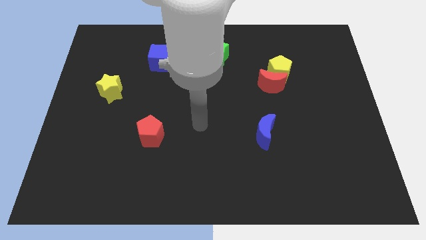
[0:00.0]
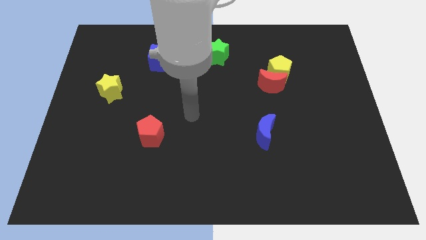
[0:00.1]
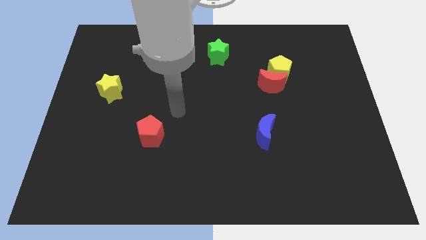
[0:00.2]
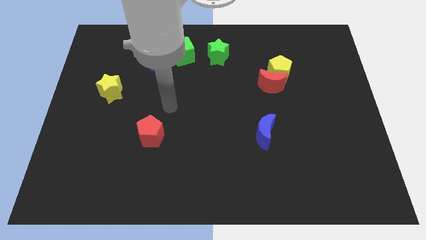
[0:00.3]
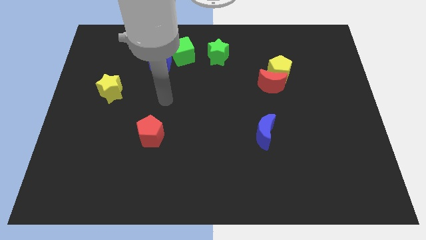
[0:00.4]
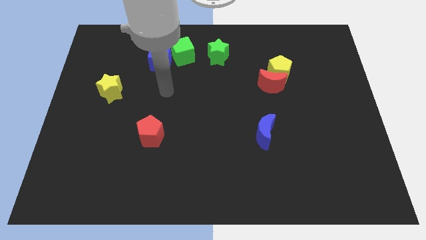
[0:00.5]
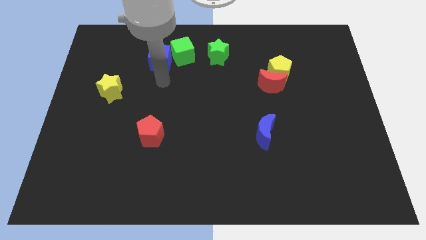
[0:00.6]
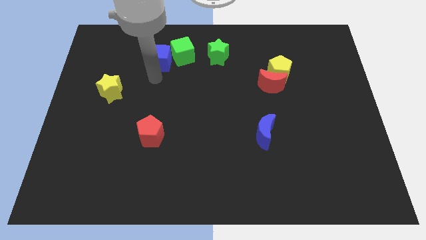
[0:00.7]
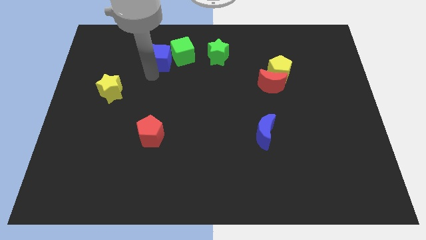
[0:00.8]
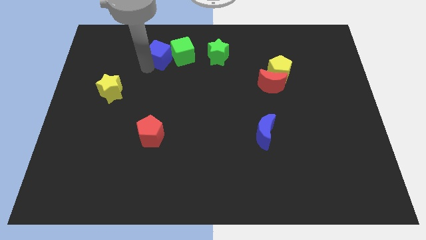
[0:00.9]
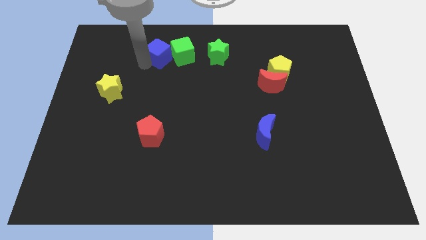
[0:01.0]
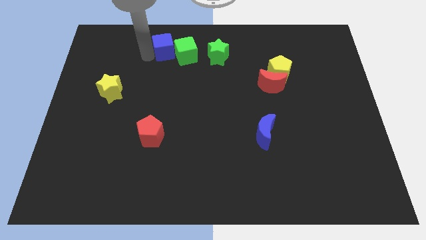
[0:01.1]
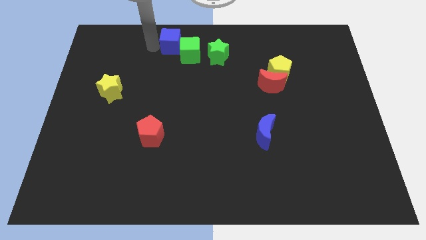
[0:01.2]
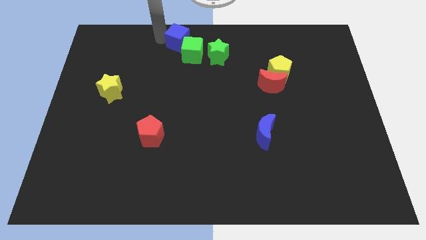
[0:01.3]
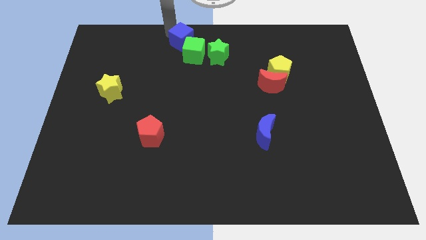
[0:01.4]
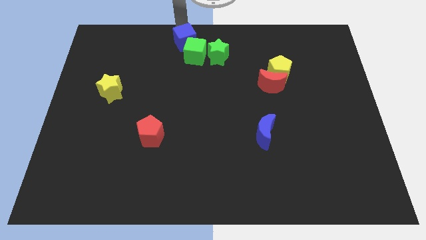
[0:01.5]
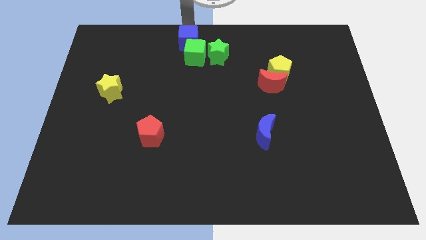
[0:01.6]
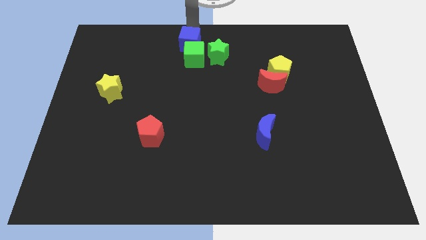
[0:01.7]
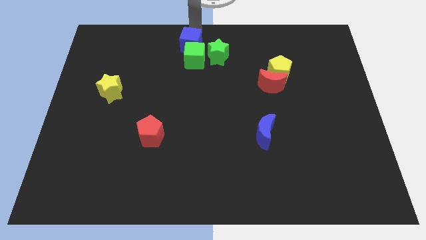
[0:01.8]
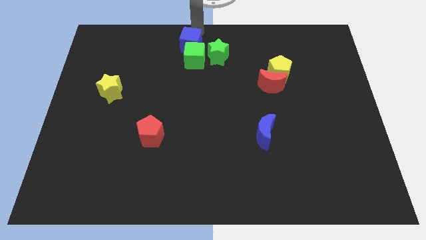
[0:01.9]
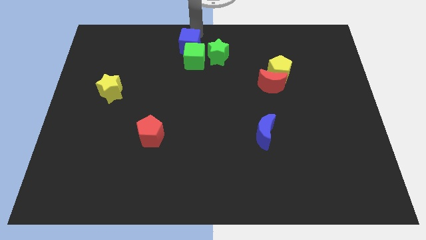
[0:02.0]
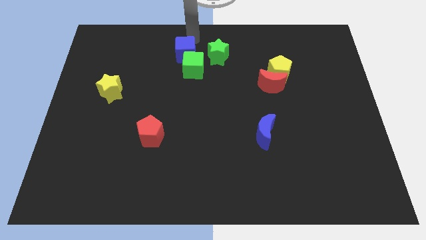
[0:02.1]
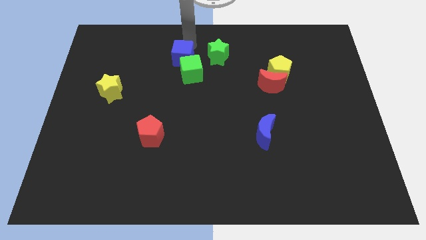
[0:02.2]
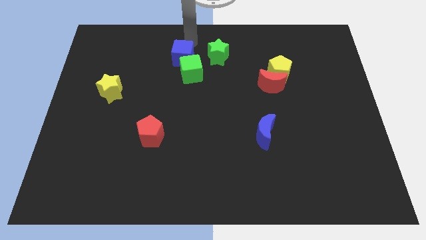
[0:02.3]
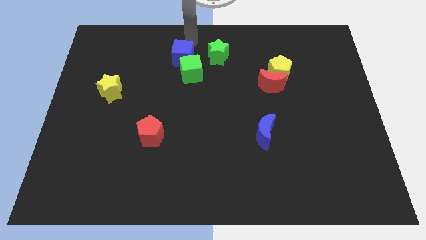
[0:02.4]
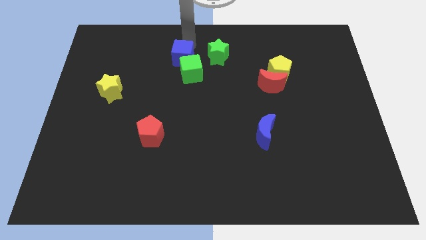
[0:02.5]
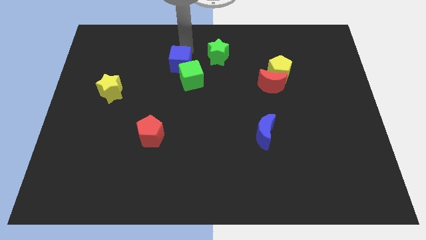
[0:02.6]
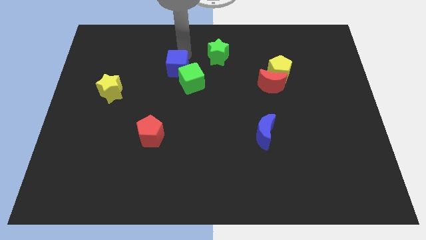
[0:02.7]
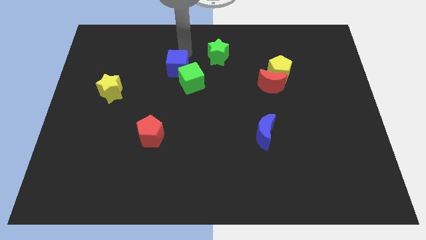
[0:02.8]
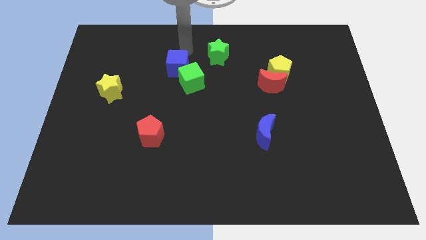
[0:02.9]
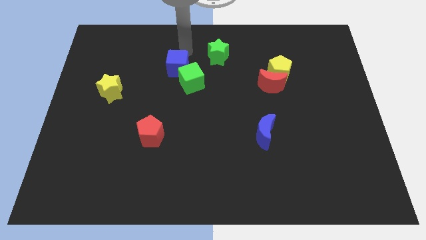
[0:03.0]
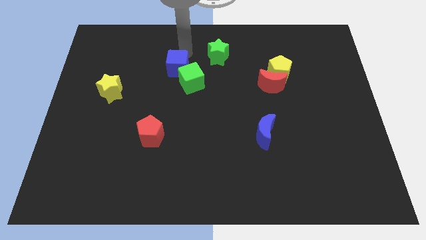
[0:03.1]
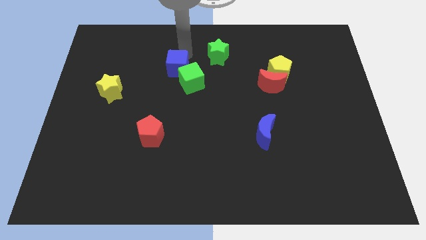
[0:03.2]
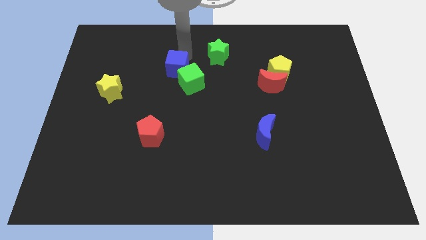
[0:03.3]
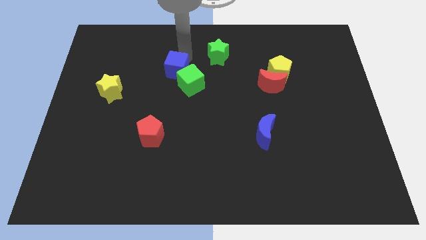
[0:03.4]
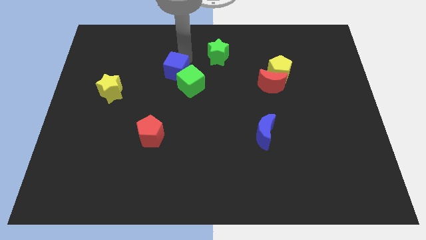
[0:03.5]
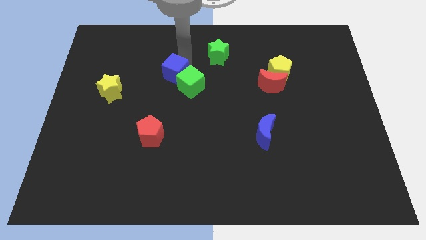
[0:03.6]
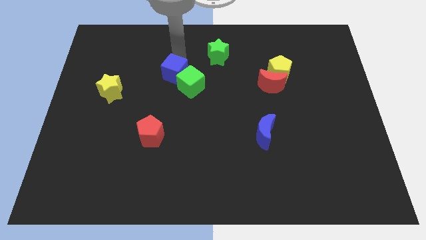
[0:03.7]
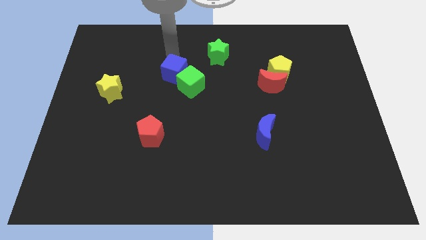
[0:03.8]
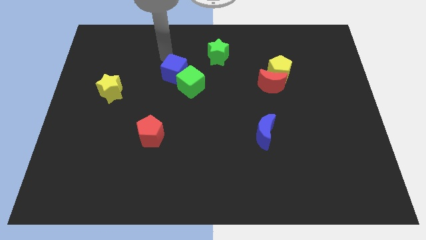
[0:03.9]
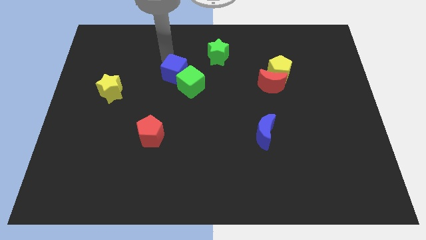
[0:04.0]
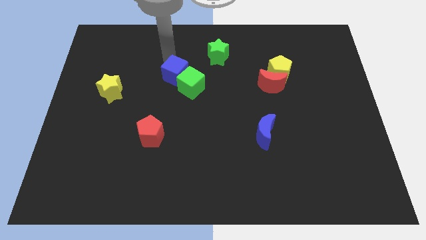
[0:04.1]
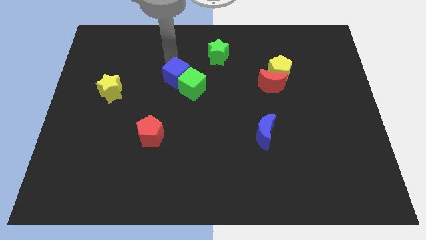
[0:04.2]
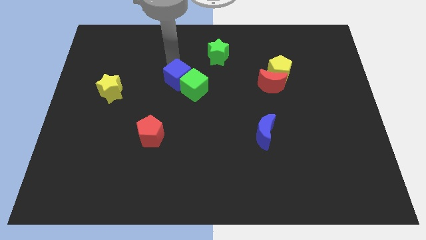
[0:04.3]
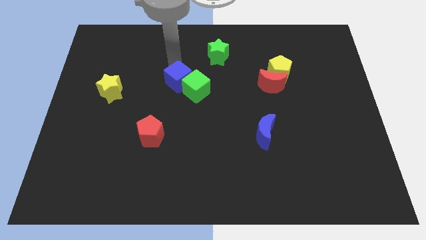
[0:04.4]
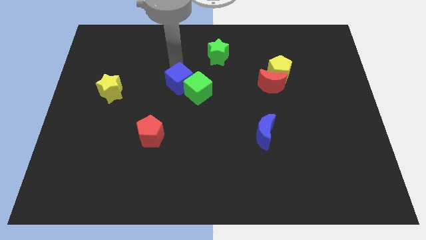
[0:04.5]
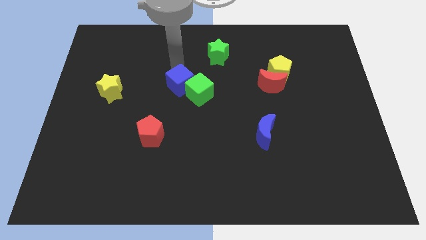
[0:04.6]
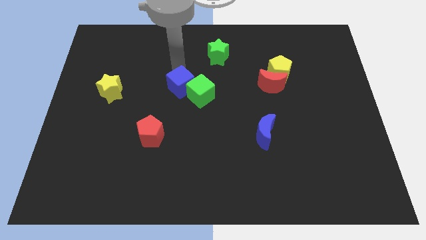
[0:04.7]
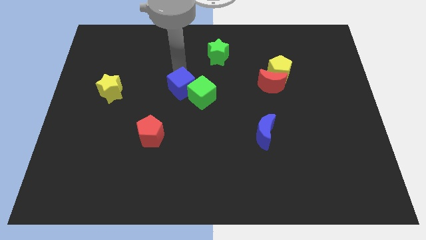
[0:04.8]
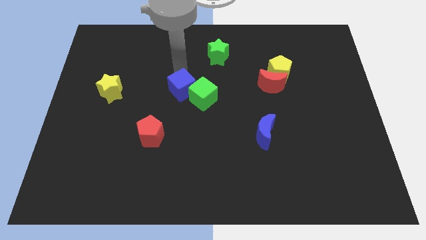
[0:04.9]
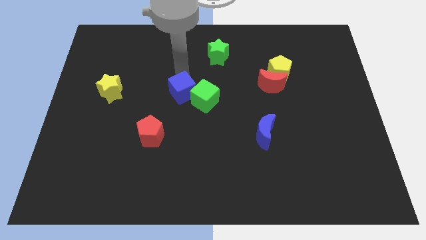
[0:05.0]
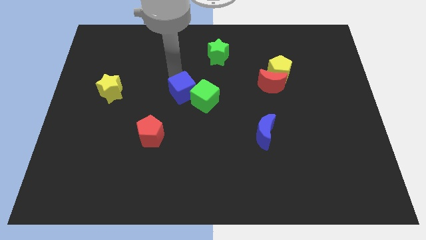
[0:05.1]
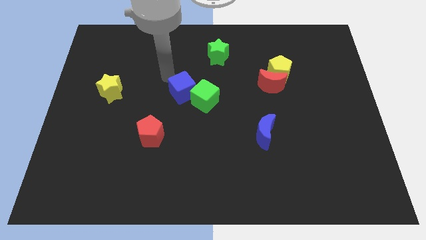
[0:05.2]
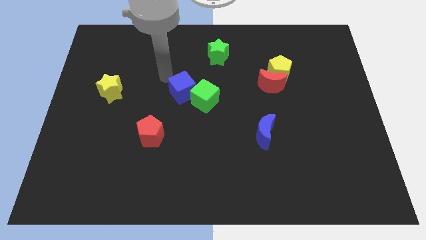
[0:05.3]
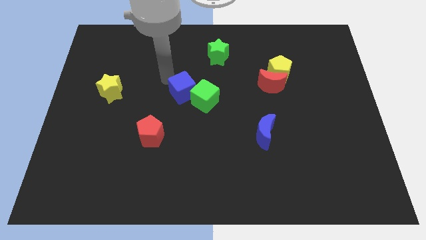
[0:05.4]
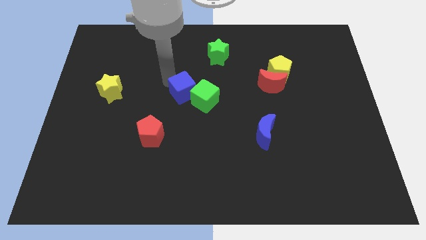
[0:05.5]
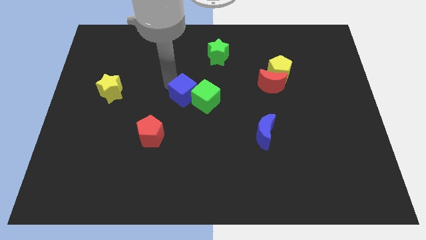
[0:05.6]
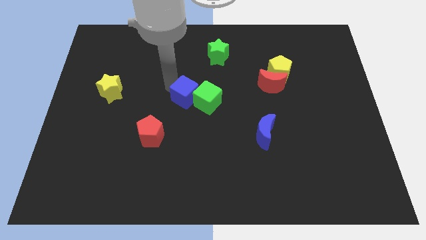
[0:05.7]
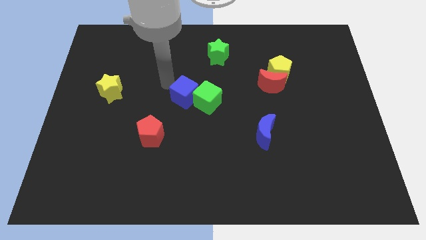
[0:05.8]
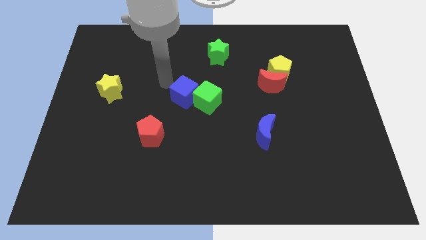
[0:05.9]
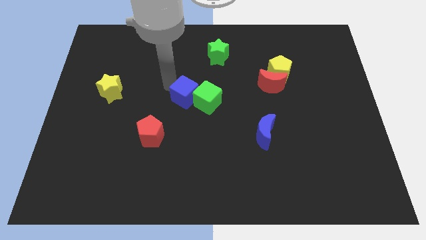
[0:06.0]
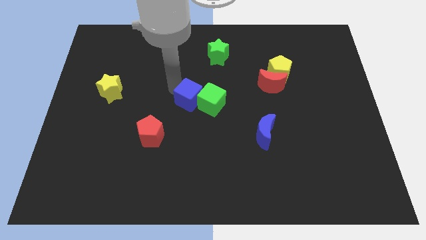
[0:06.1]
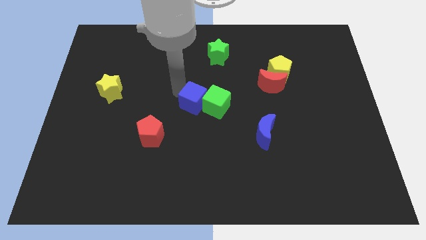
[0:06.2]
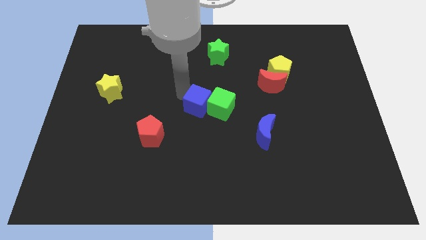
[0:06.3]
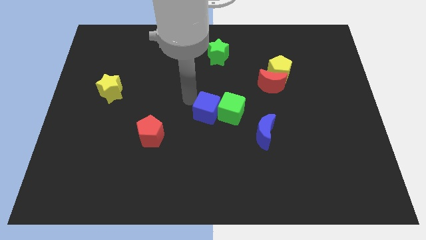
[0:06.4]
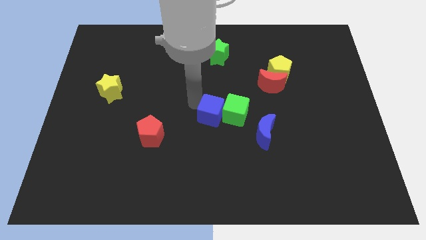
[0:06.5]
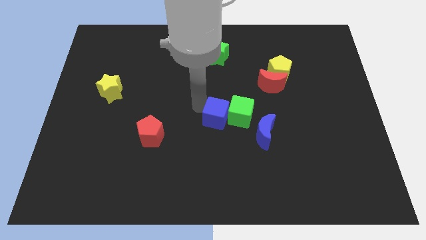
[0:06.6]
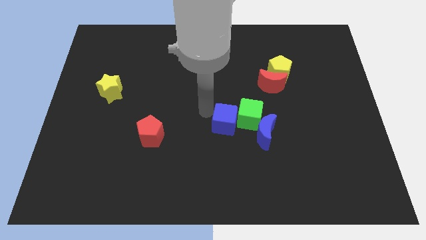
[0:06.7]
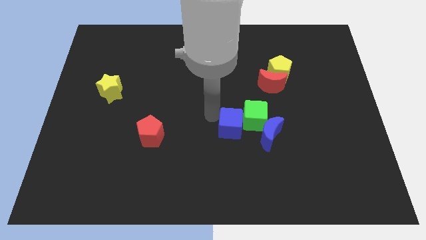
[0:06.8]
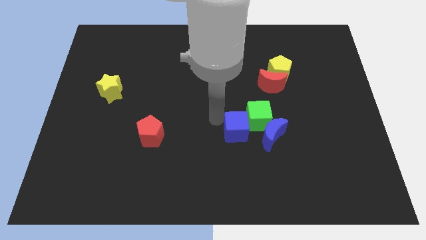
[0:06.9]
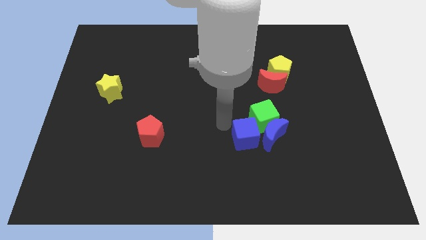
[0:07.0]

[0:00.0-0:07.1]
push the blue cube next to the blue moon

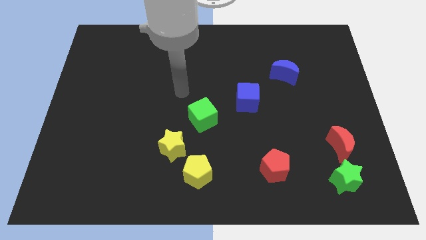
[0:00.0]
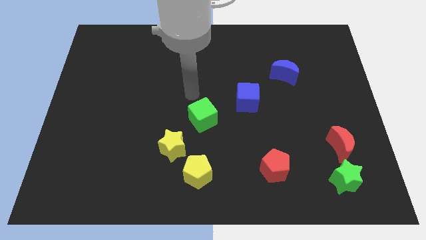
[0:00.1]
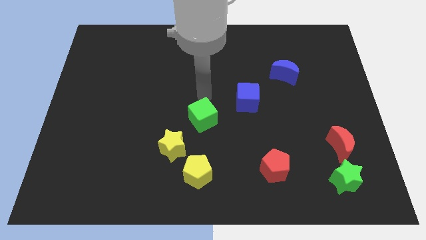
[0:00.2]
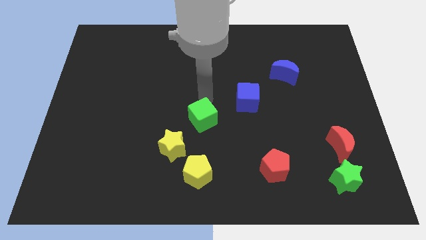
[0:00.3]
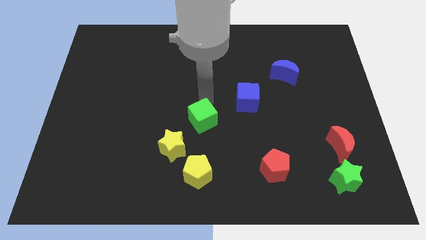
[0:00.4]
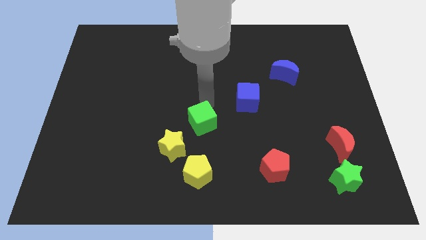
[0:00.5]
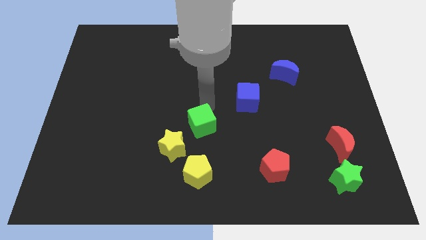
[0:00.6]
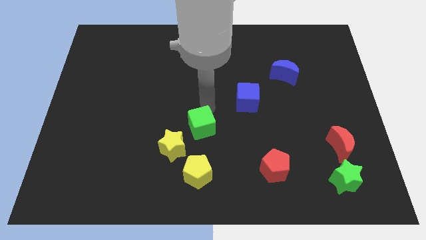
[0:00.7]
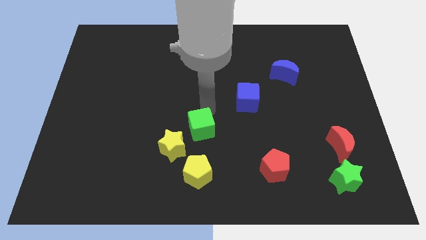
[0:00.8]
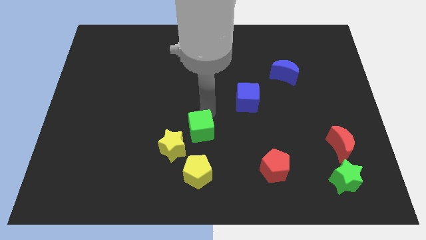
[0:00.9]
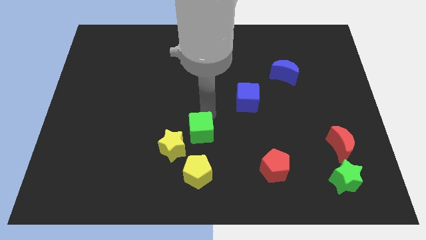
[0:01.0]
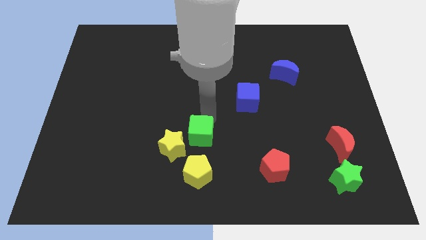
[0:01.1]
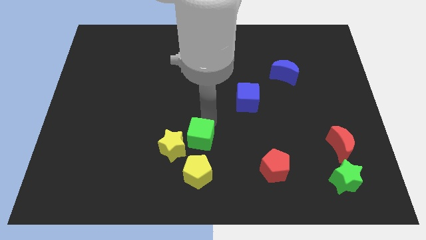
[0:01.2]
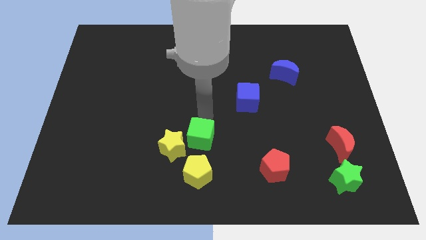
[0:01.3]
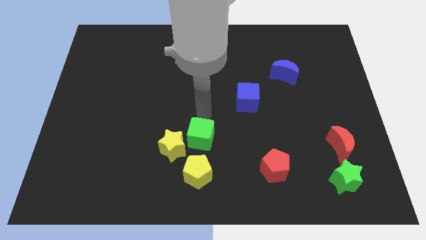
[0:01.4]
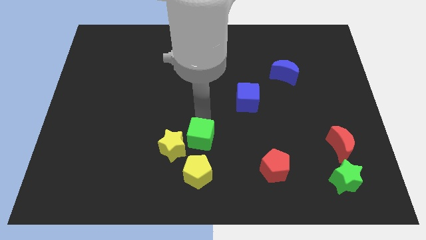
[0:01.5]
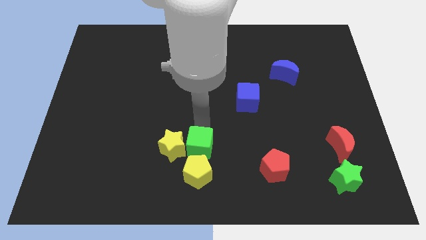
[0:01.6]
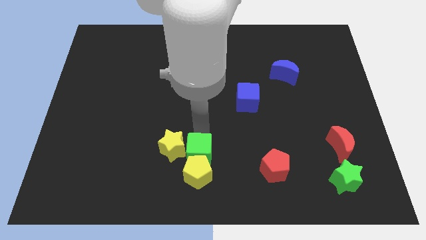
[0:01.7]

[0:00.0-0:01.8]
slide the green cube close to the yellow pentagon
